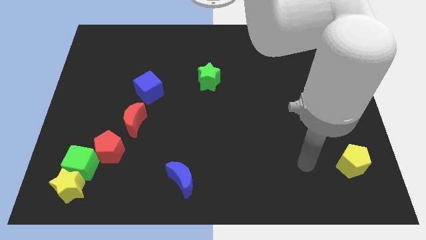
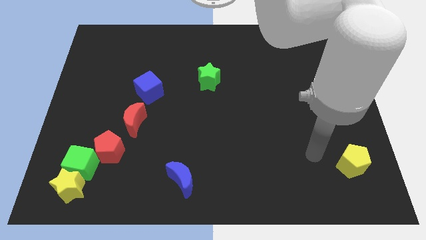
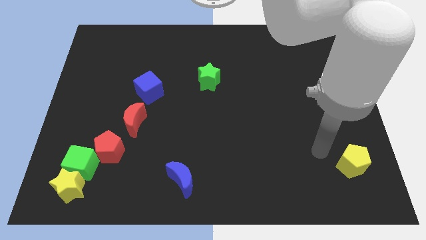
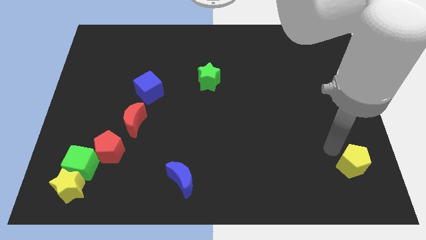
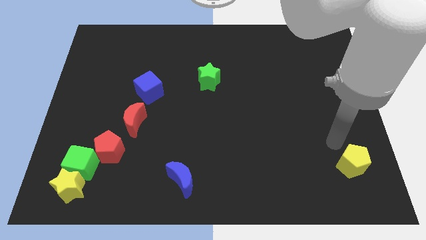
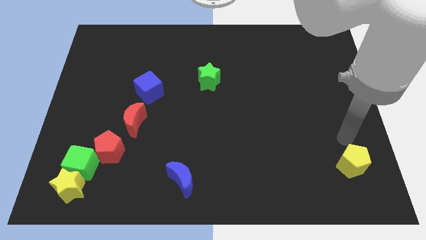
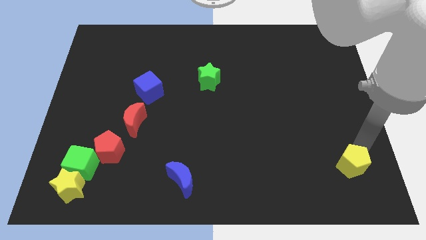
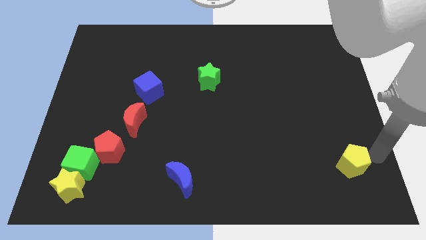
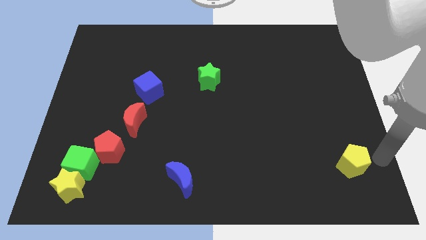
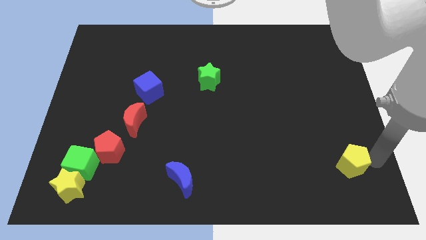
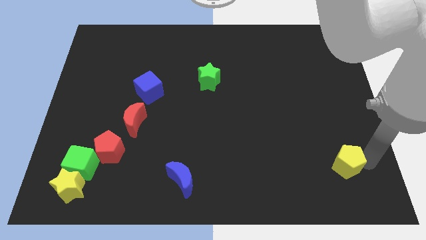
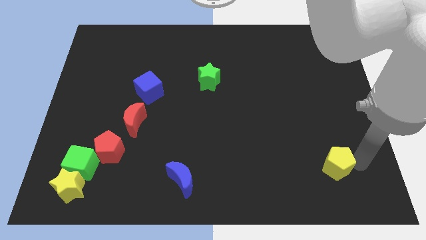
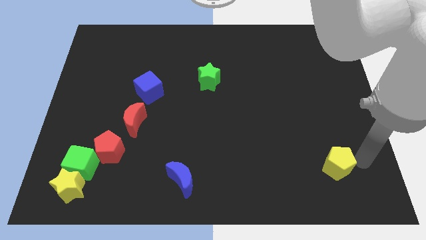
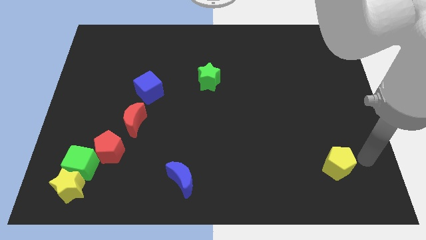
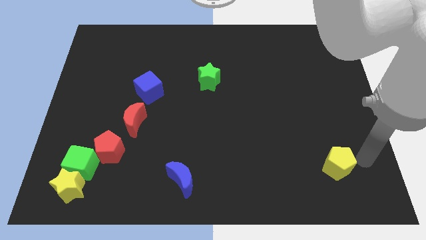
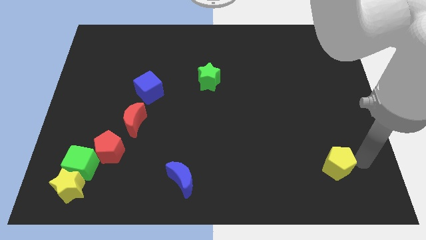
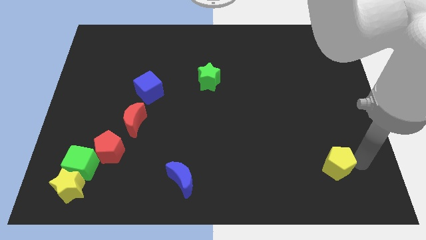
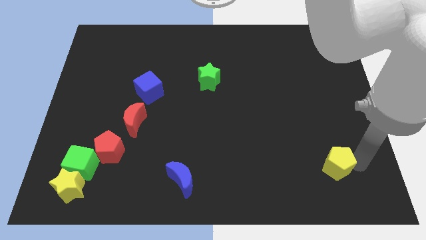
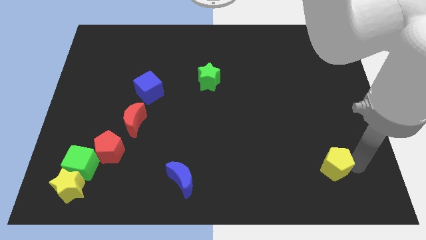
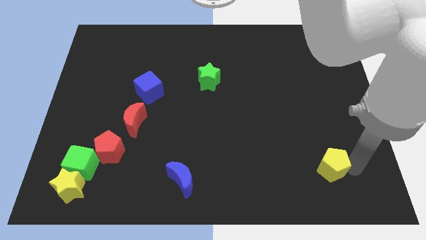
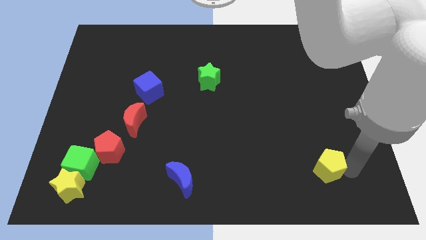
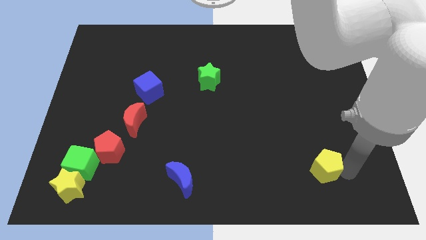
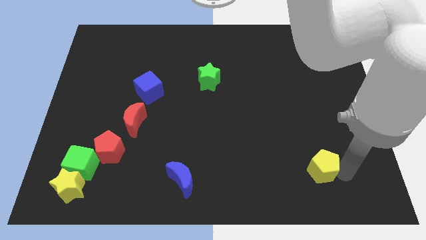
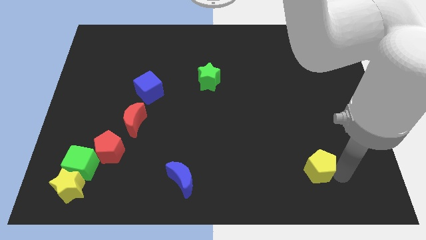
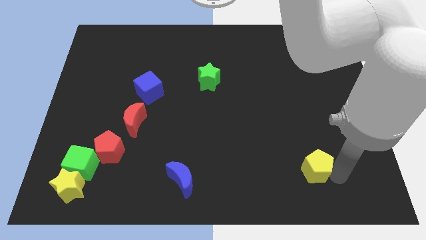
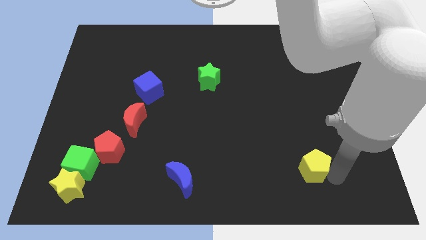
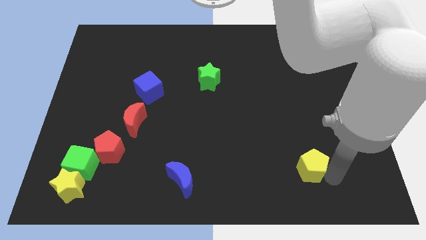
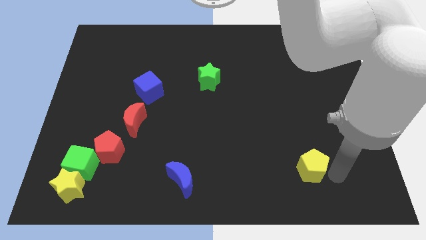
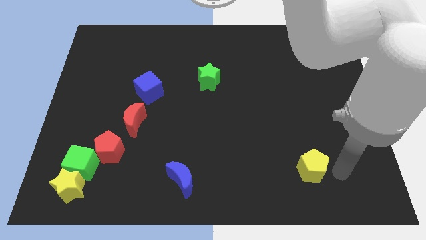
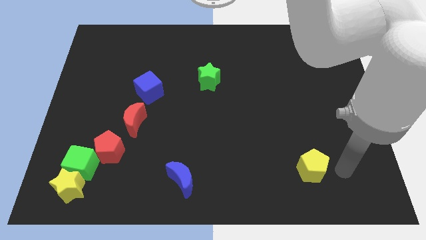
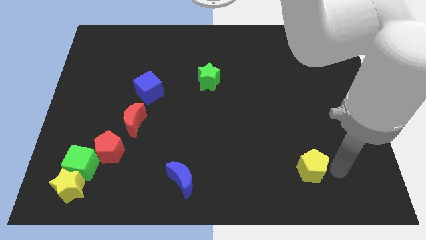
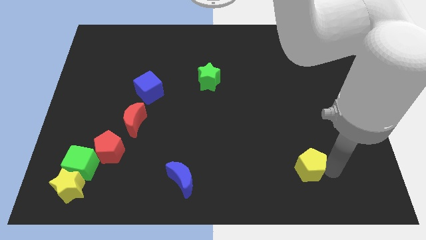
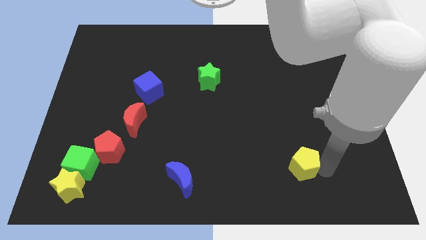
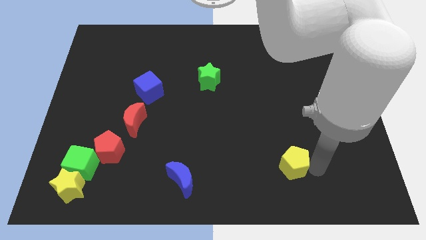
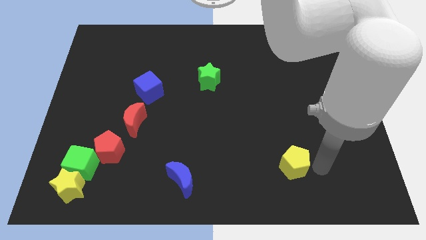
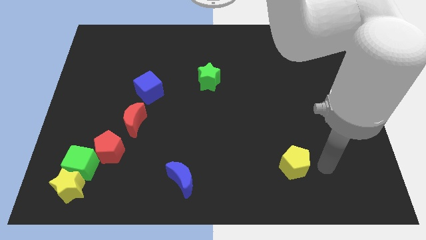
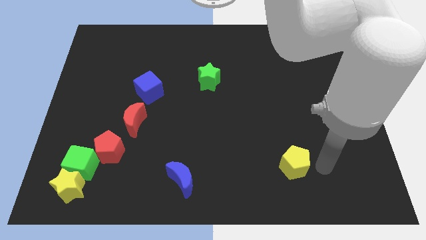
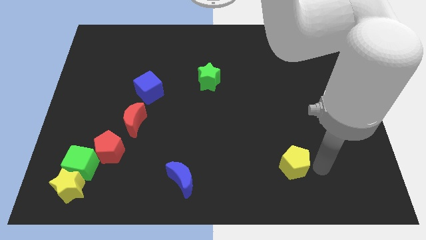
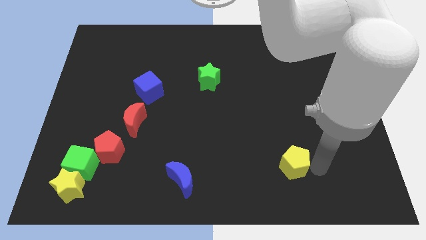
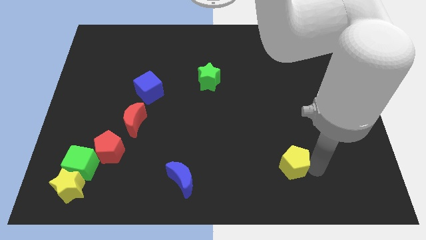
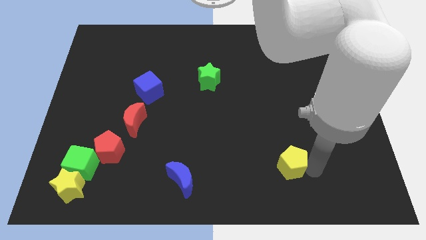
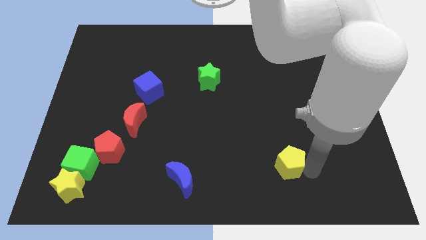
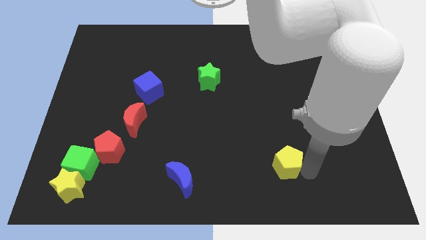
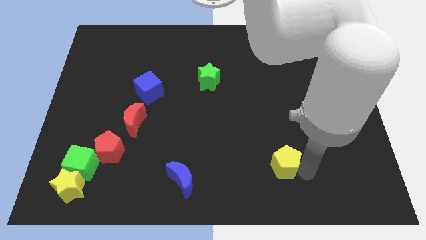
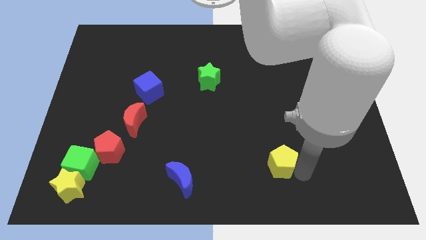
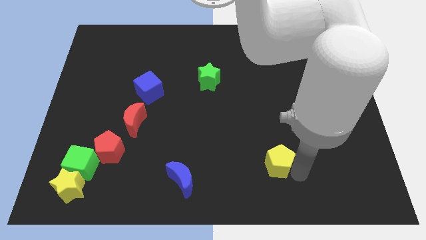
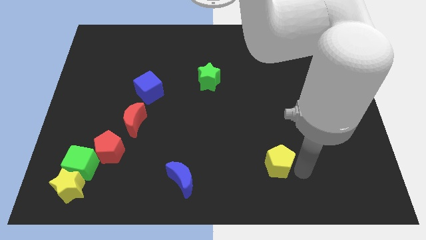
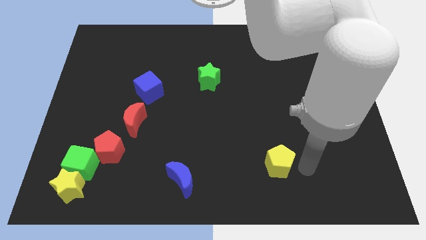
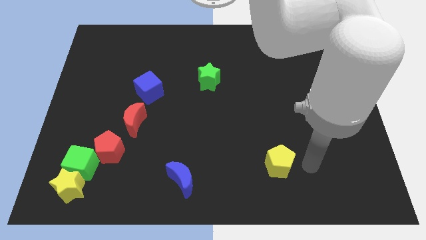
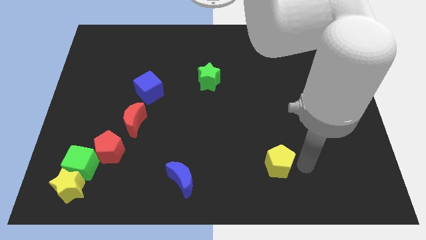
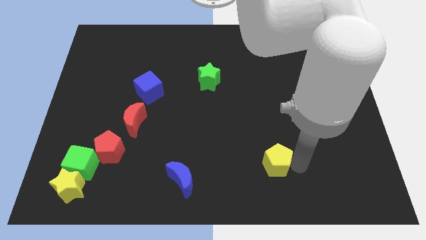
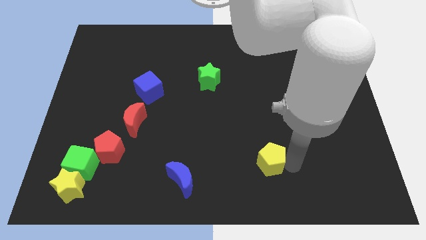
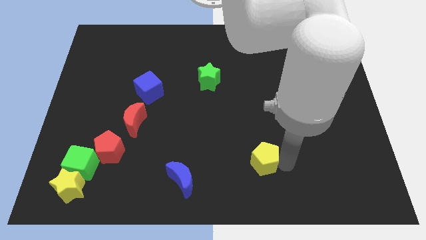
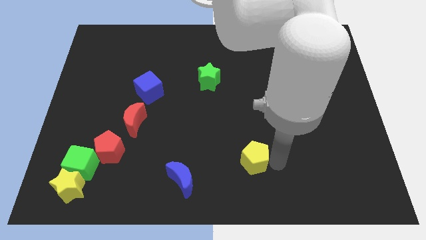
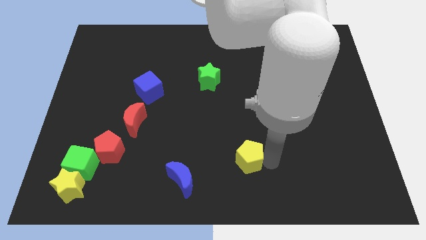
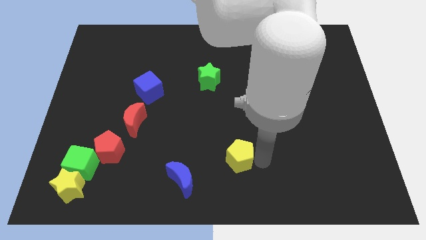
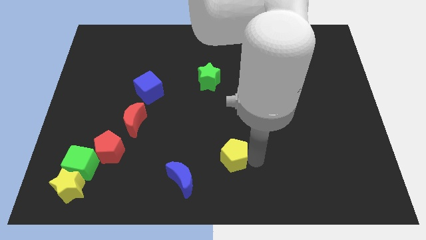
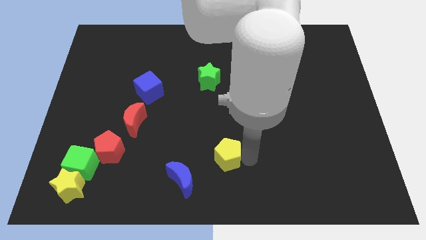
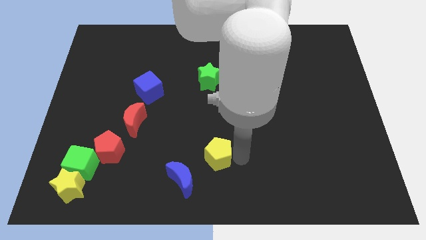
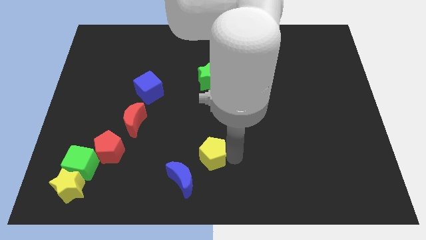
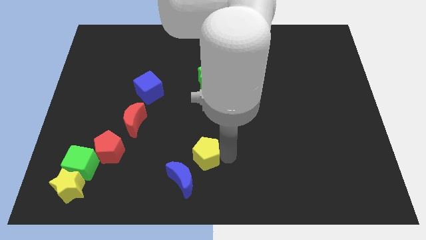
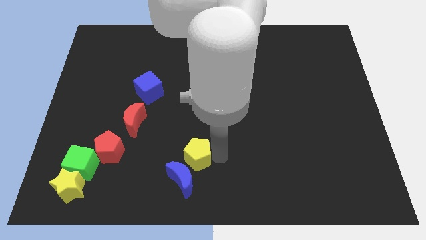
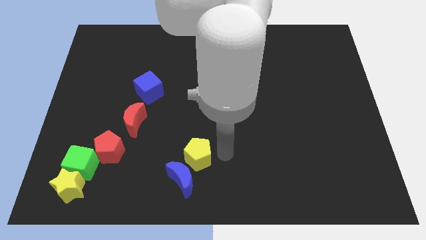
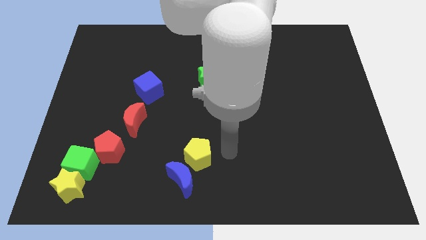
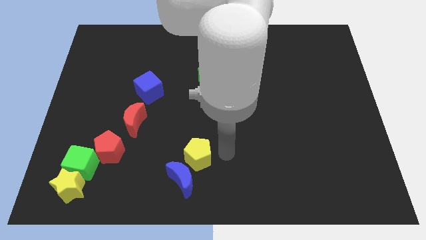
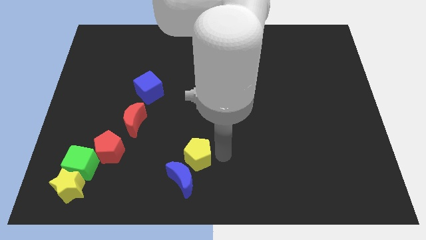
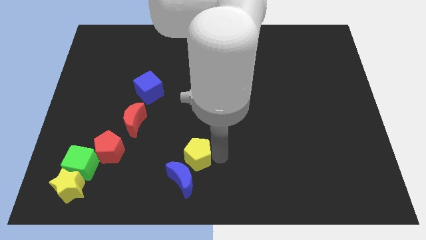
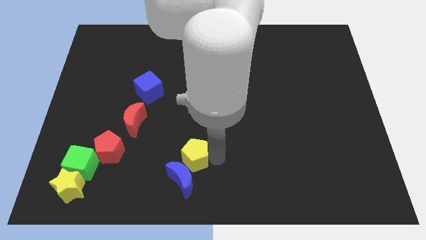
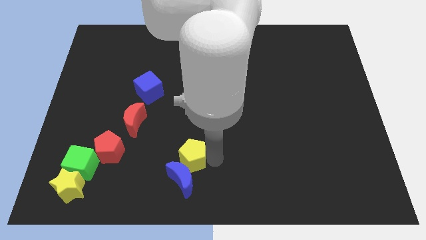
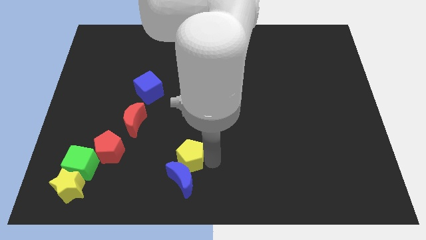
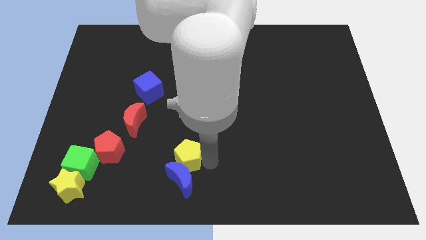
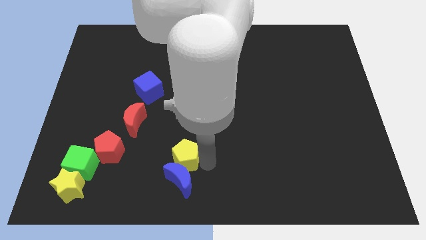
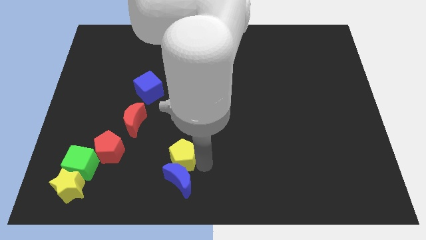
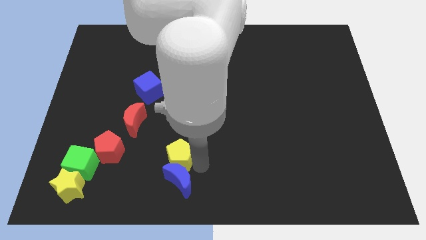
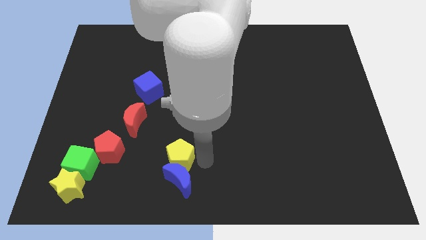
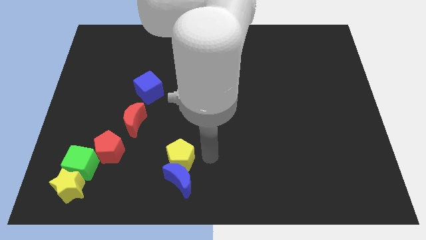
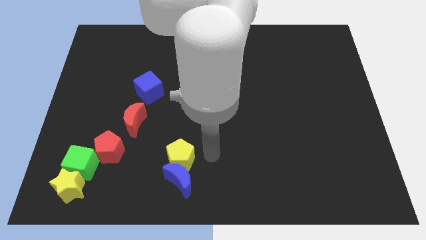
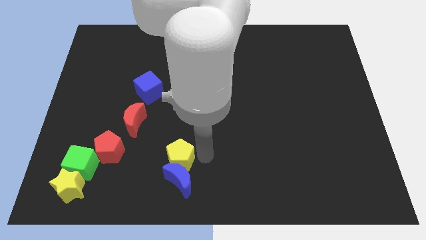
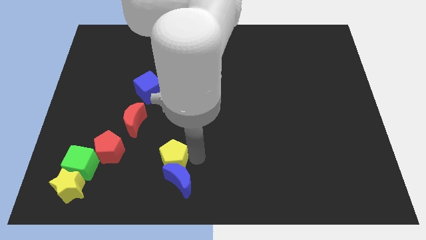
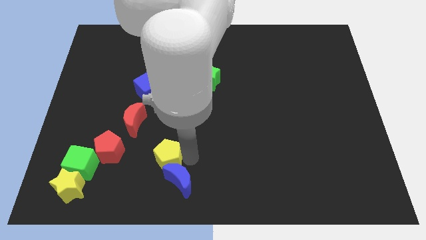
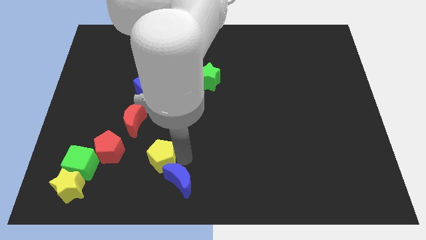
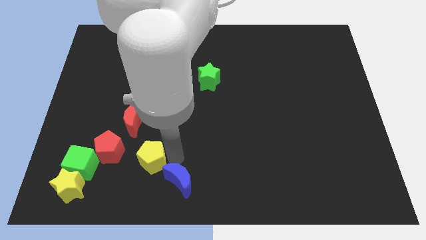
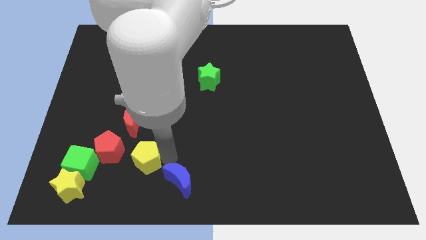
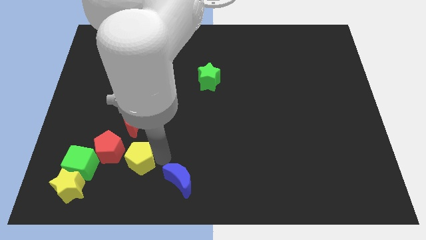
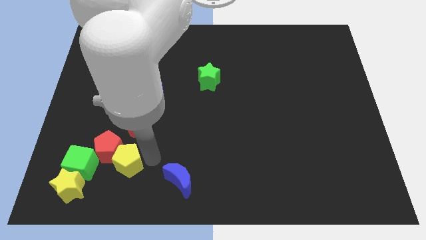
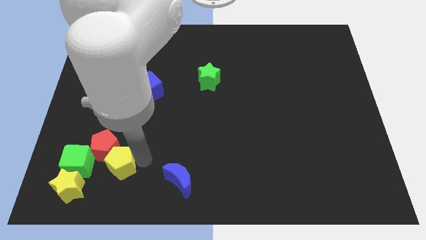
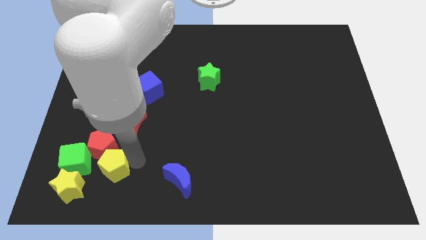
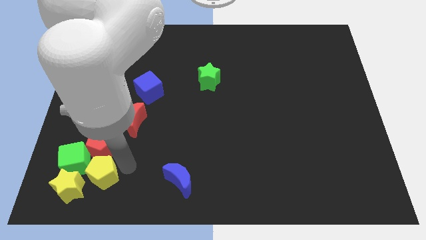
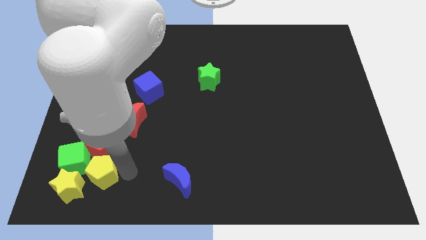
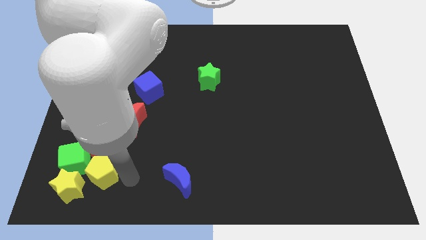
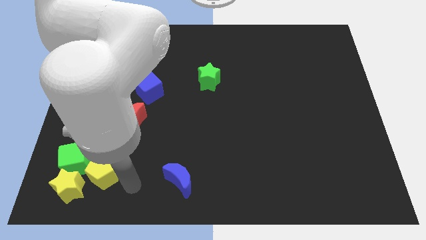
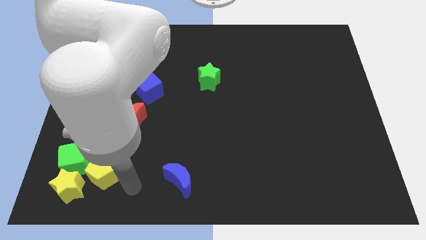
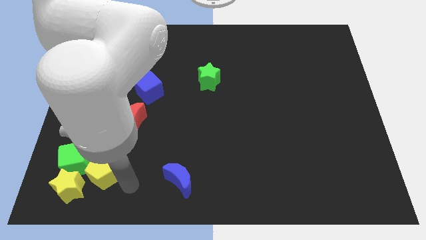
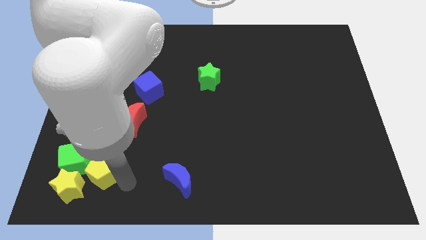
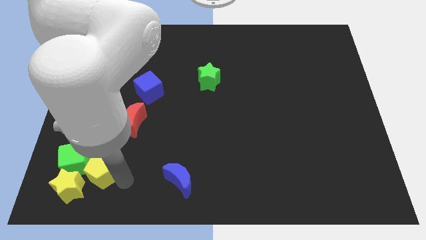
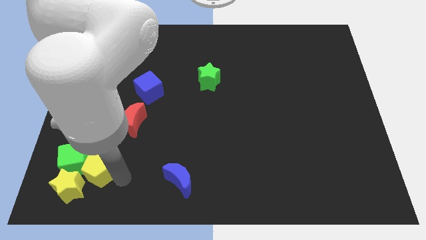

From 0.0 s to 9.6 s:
move the yellow pentagon next to the green cube
